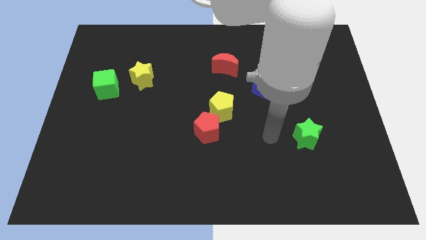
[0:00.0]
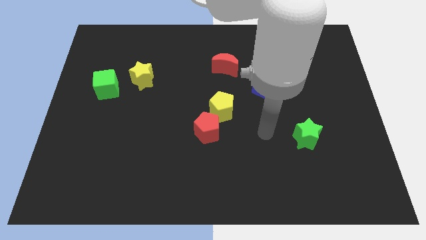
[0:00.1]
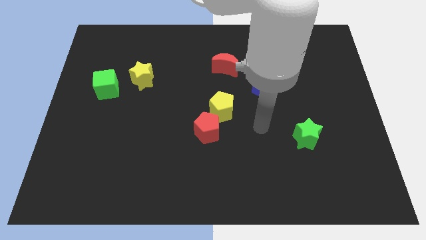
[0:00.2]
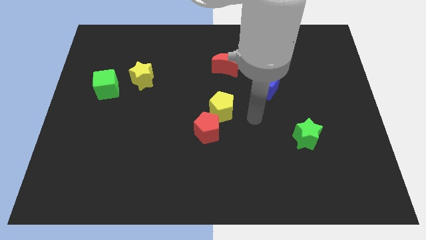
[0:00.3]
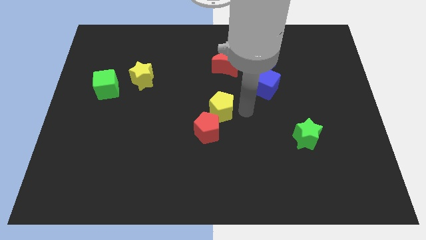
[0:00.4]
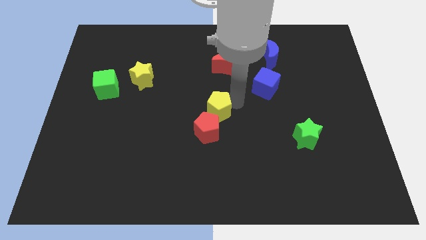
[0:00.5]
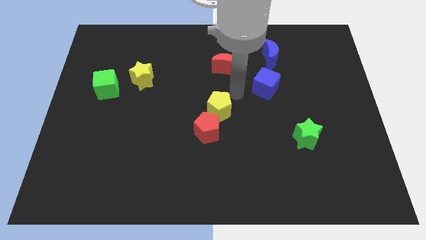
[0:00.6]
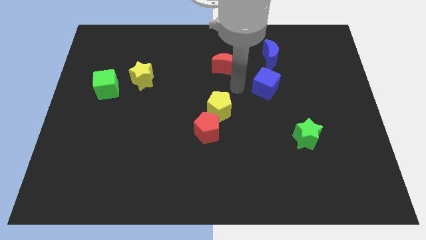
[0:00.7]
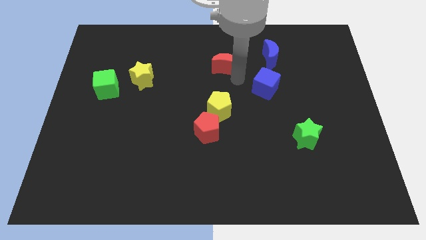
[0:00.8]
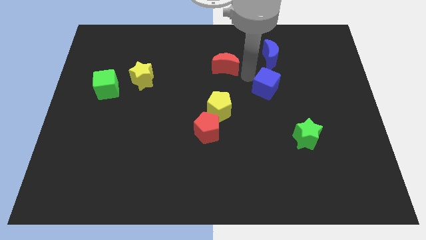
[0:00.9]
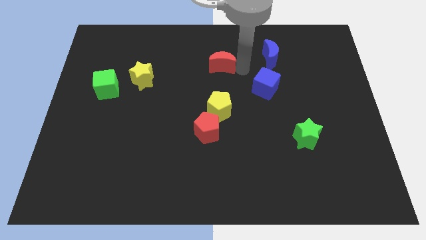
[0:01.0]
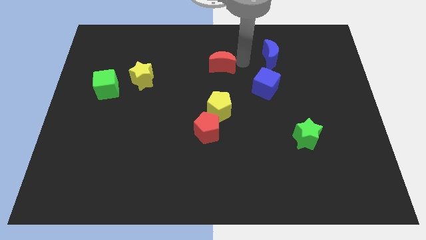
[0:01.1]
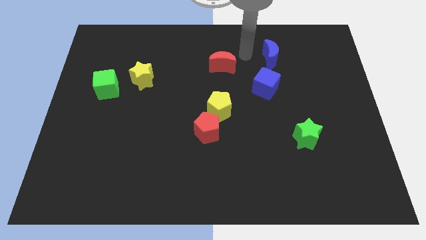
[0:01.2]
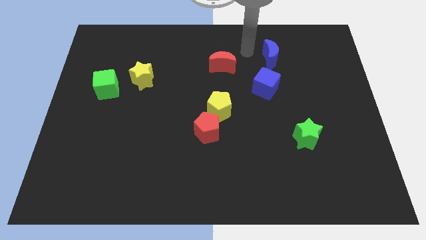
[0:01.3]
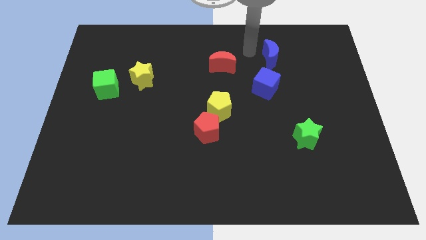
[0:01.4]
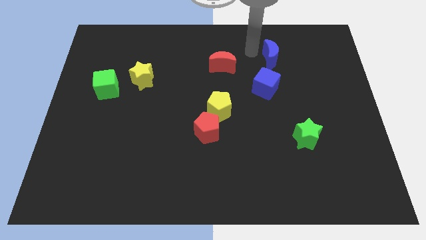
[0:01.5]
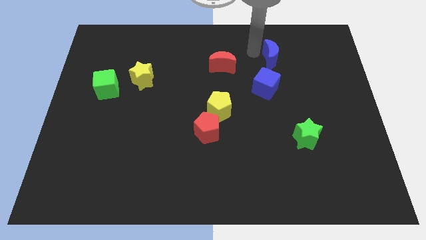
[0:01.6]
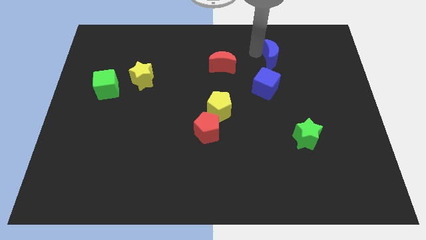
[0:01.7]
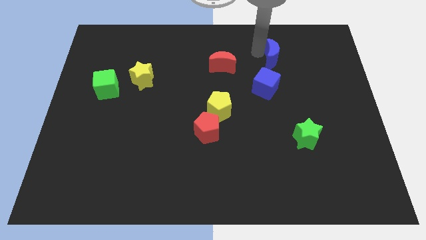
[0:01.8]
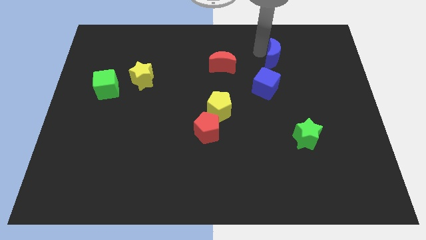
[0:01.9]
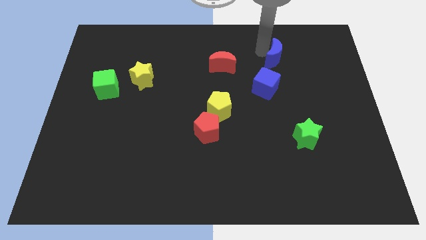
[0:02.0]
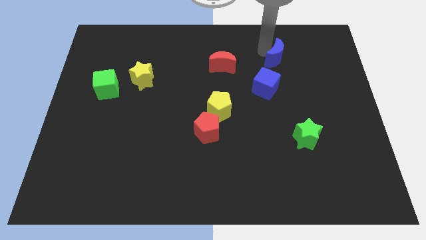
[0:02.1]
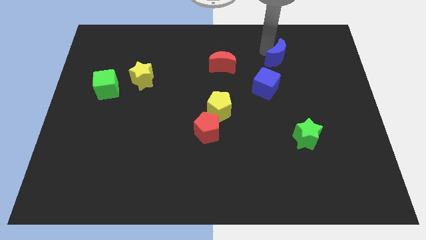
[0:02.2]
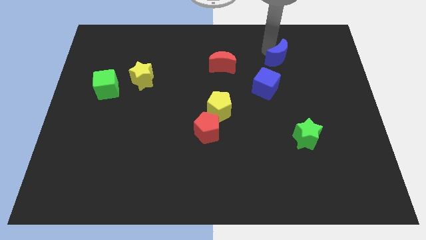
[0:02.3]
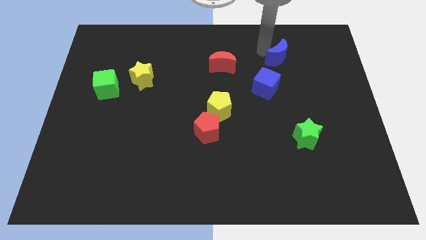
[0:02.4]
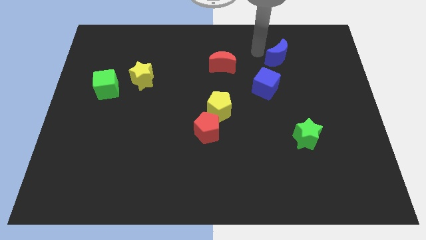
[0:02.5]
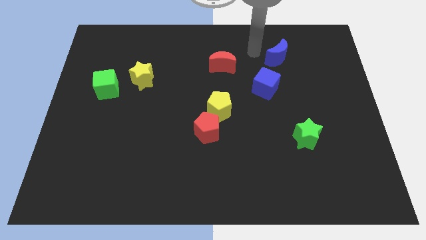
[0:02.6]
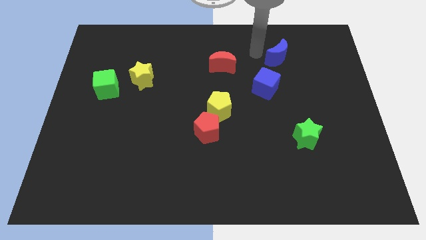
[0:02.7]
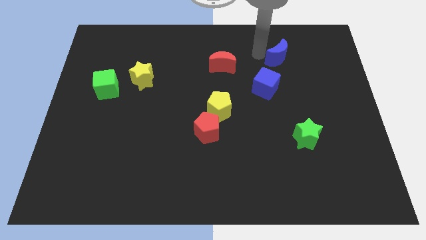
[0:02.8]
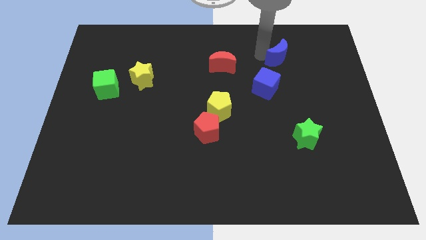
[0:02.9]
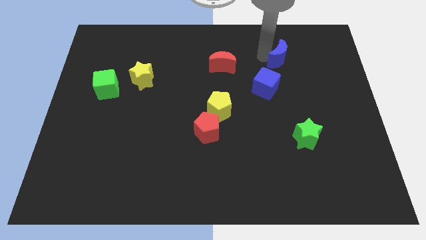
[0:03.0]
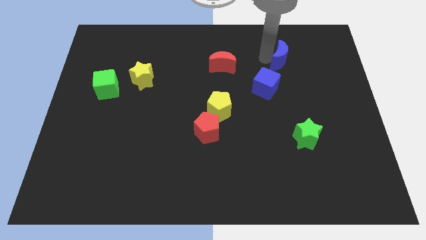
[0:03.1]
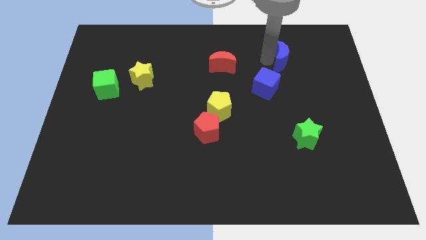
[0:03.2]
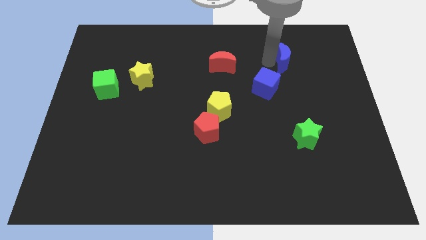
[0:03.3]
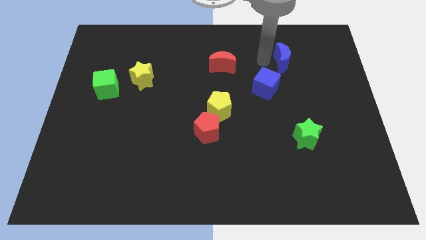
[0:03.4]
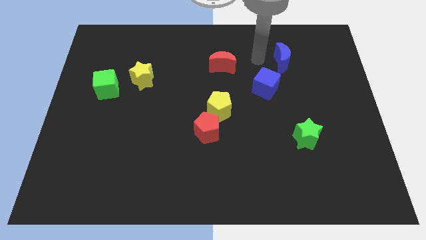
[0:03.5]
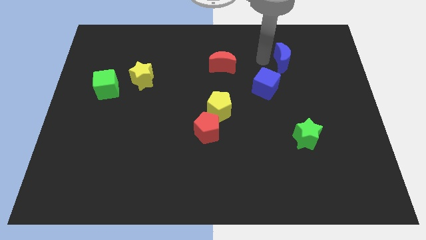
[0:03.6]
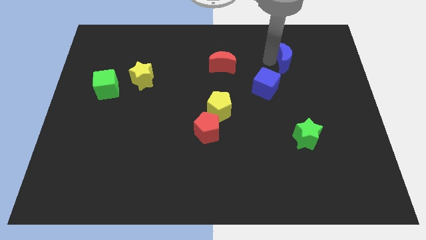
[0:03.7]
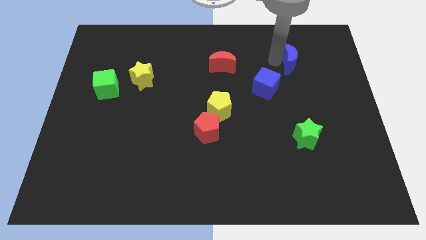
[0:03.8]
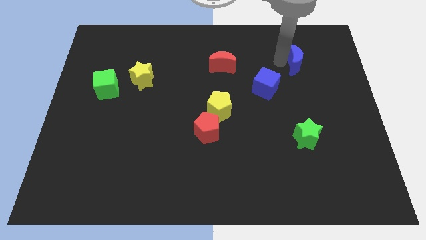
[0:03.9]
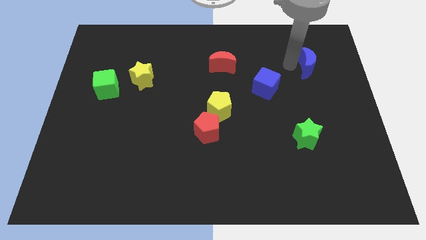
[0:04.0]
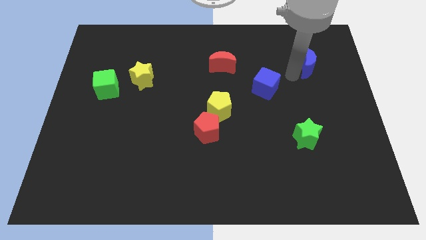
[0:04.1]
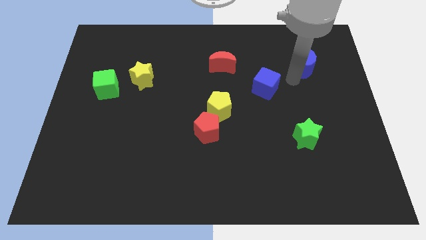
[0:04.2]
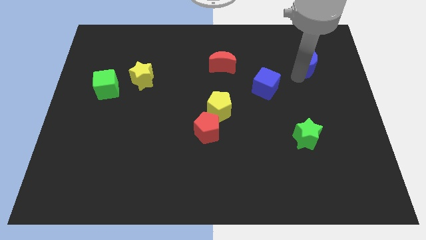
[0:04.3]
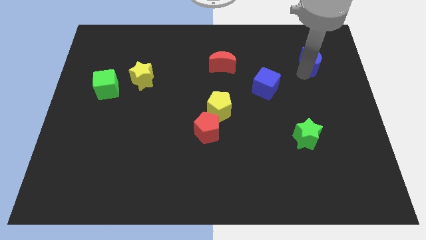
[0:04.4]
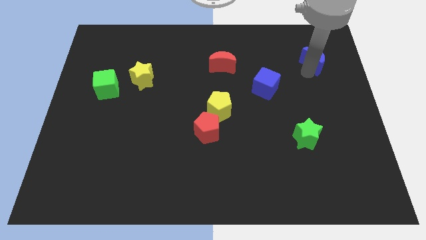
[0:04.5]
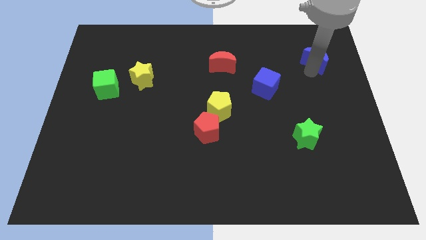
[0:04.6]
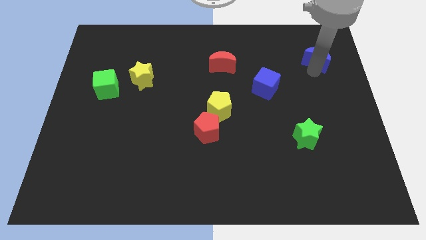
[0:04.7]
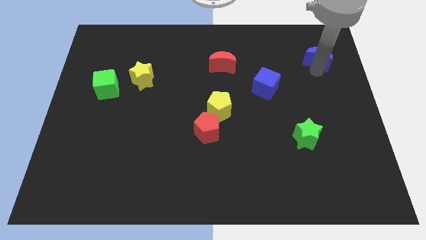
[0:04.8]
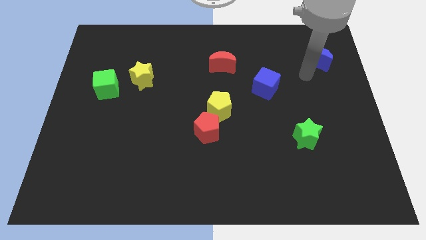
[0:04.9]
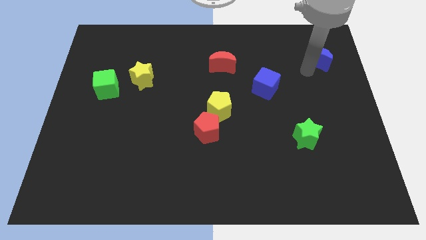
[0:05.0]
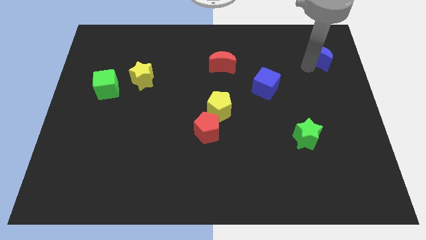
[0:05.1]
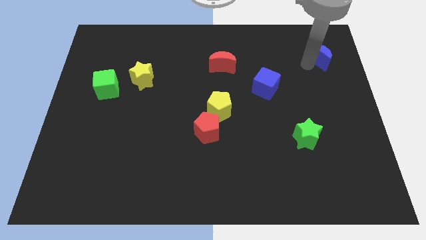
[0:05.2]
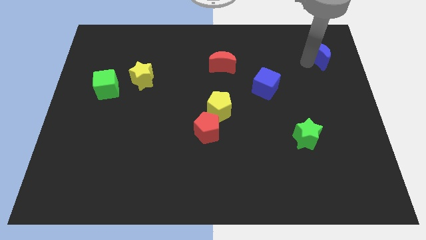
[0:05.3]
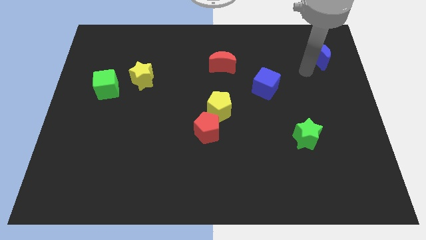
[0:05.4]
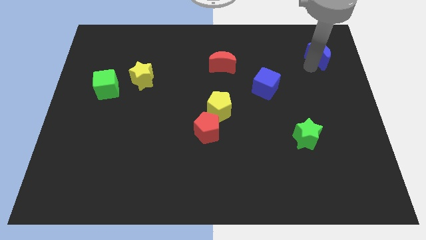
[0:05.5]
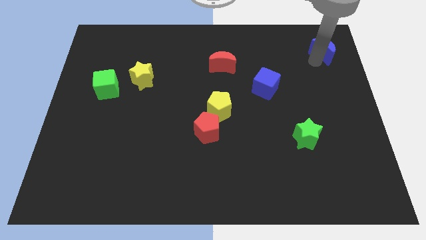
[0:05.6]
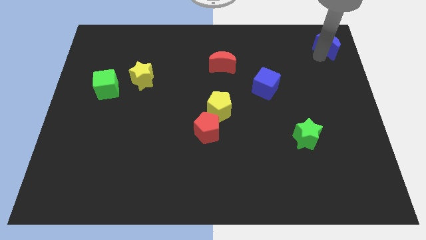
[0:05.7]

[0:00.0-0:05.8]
move the blue moon to the top right of the board
